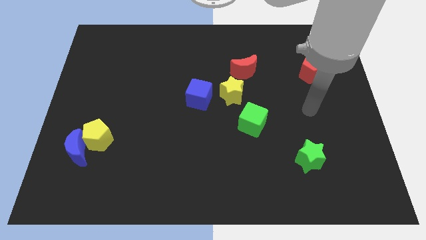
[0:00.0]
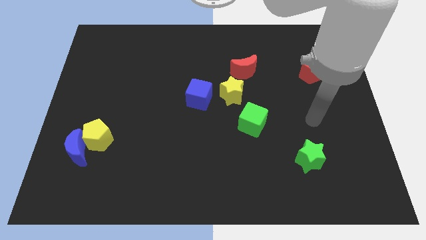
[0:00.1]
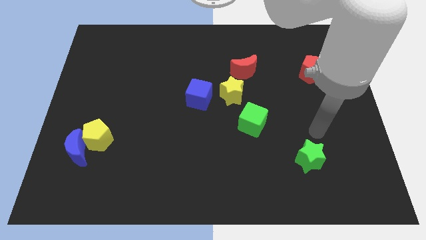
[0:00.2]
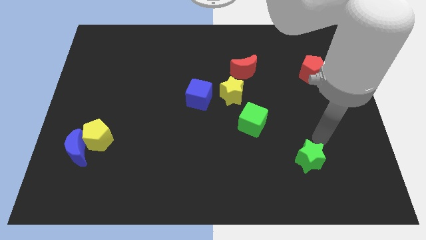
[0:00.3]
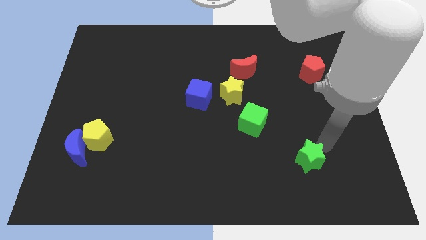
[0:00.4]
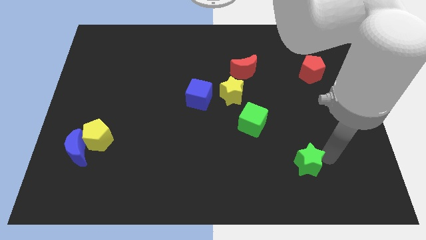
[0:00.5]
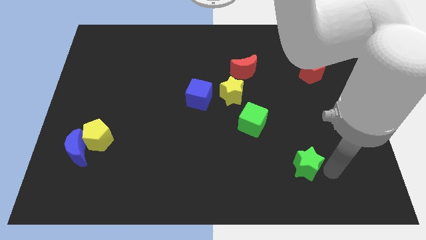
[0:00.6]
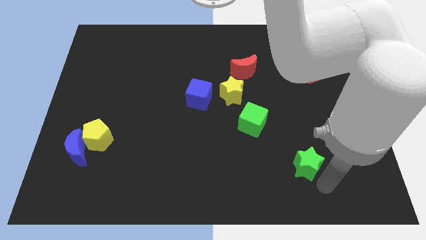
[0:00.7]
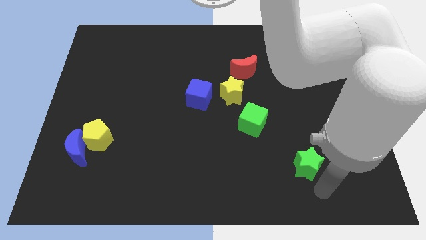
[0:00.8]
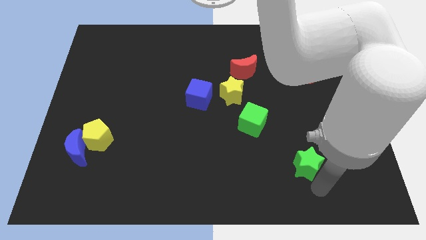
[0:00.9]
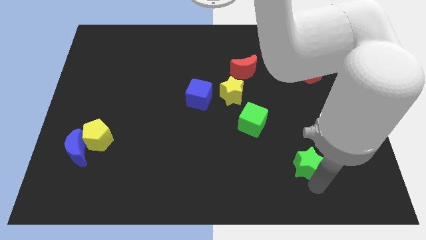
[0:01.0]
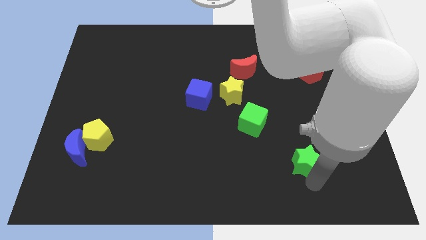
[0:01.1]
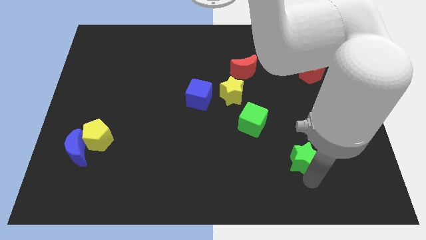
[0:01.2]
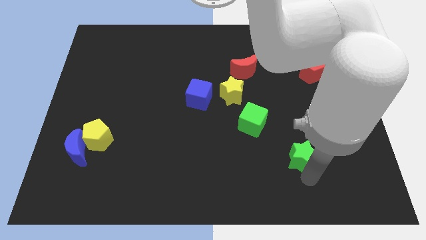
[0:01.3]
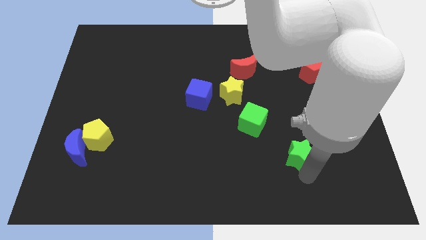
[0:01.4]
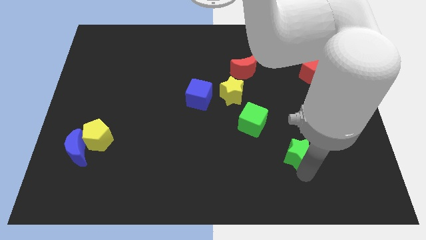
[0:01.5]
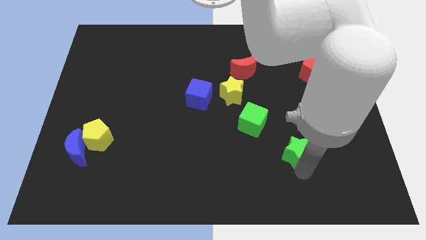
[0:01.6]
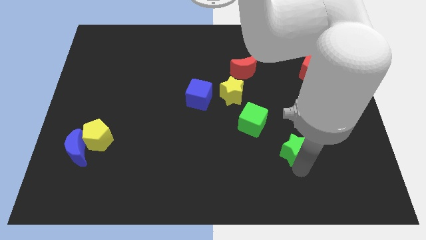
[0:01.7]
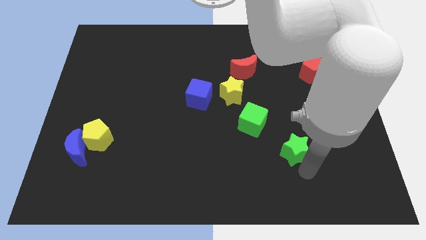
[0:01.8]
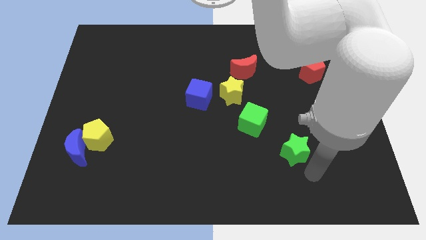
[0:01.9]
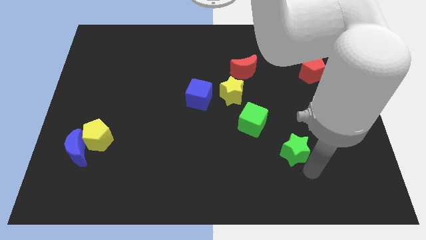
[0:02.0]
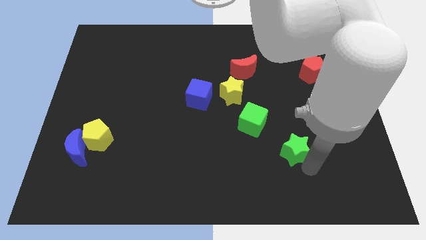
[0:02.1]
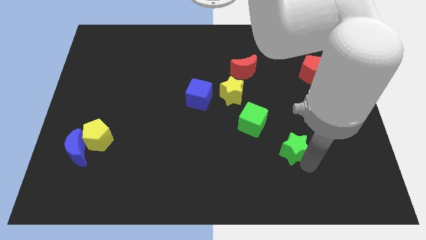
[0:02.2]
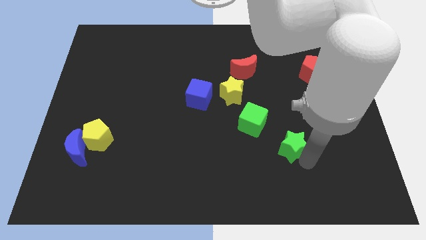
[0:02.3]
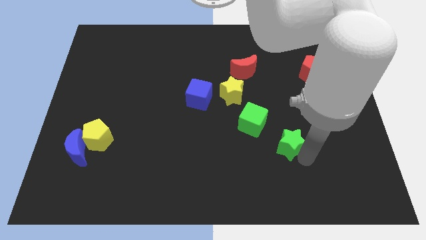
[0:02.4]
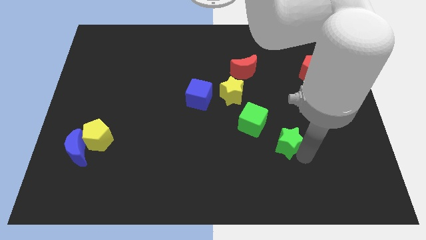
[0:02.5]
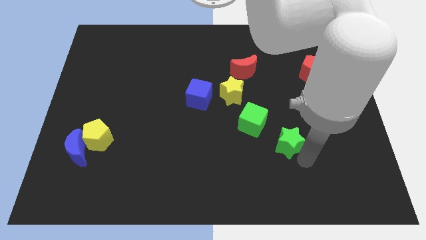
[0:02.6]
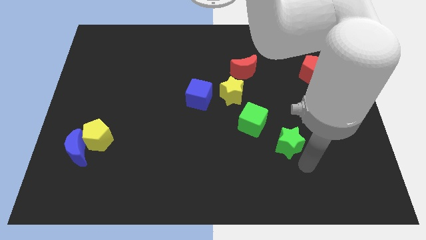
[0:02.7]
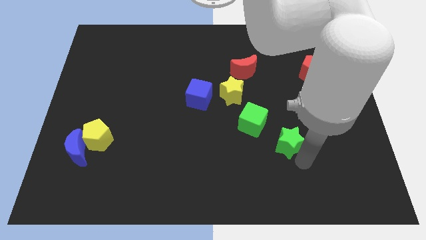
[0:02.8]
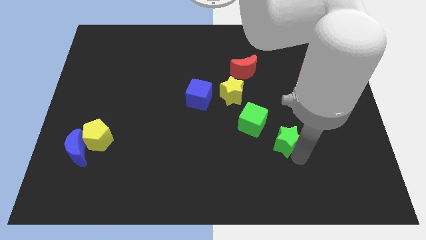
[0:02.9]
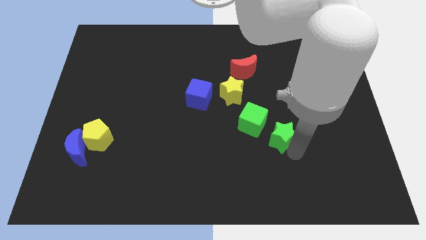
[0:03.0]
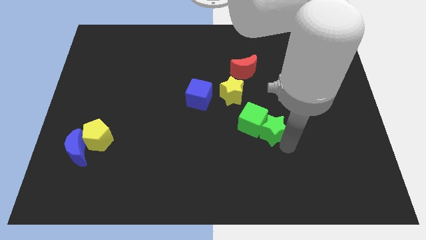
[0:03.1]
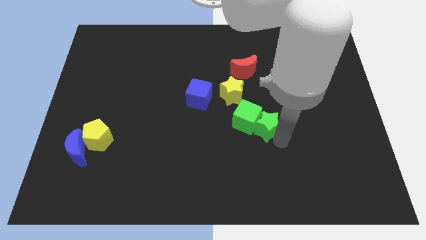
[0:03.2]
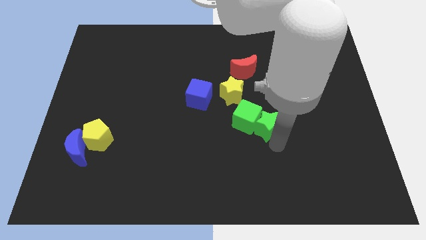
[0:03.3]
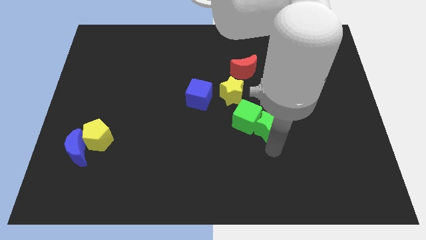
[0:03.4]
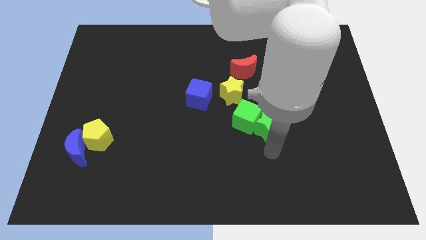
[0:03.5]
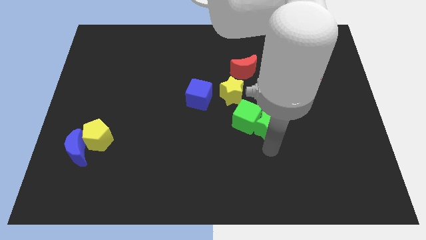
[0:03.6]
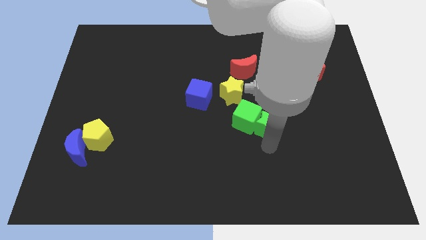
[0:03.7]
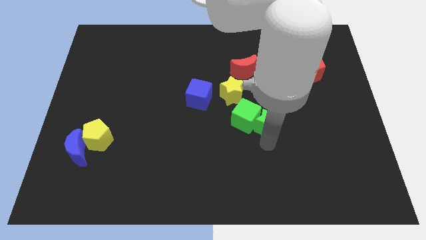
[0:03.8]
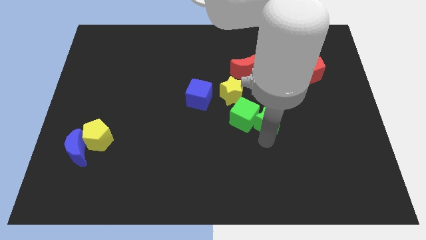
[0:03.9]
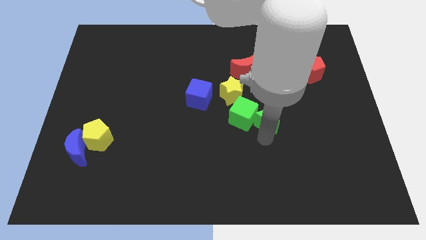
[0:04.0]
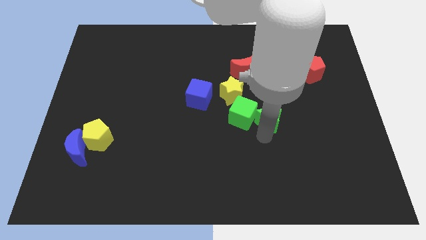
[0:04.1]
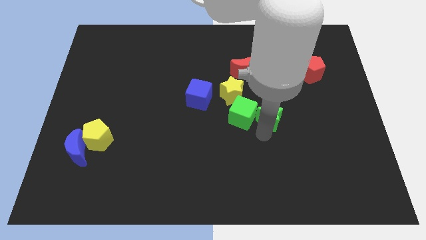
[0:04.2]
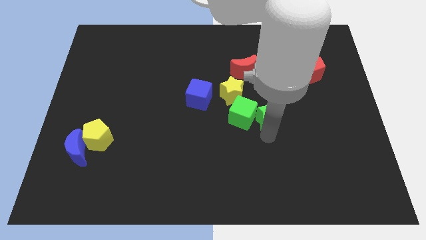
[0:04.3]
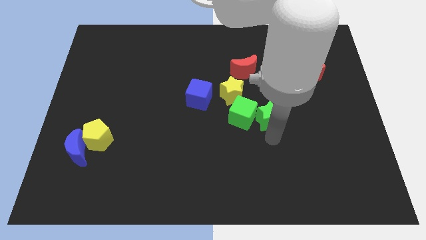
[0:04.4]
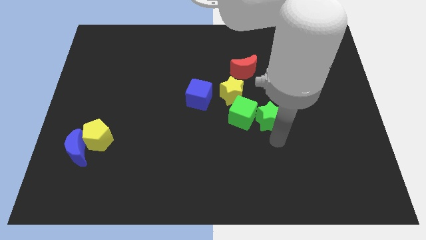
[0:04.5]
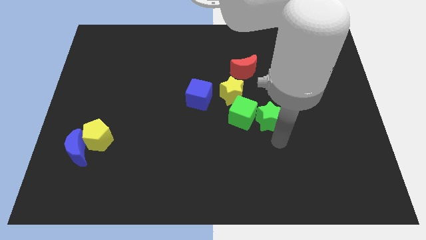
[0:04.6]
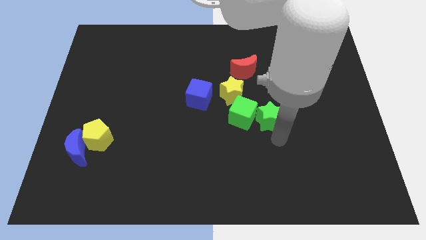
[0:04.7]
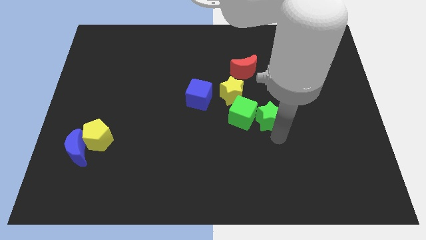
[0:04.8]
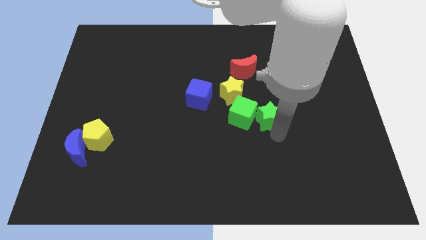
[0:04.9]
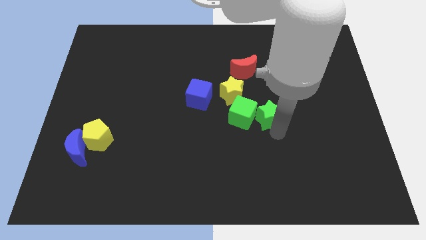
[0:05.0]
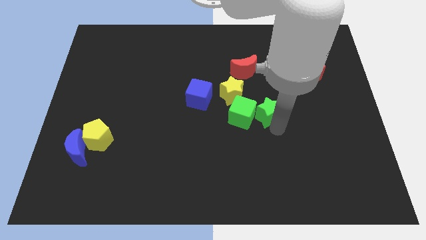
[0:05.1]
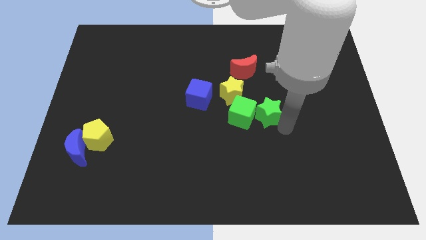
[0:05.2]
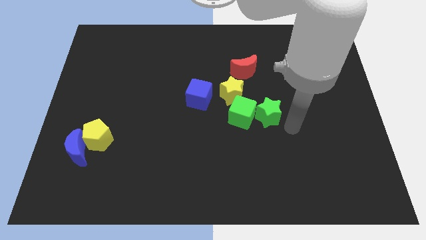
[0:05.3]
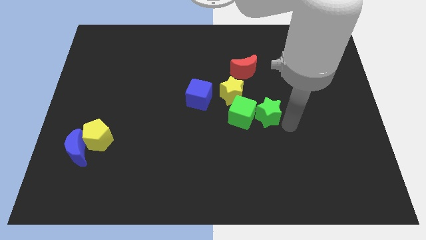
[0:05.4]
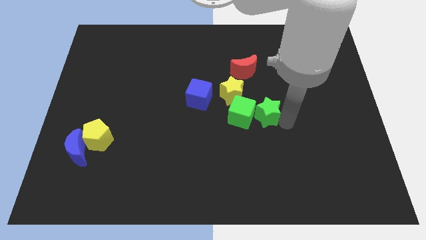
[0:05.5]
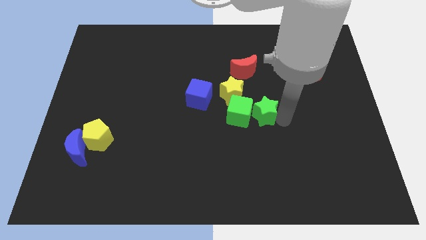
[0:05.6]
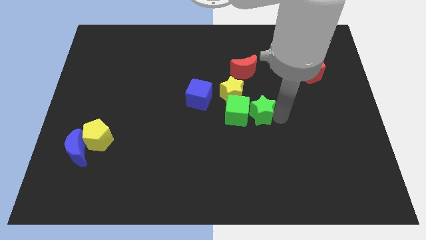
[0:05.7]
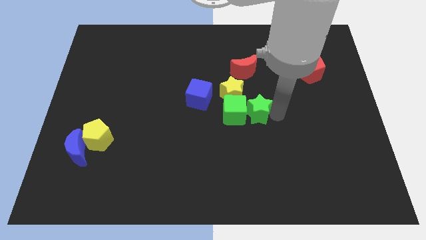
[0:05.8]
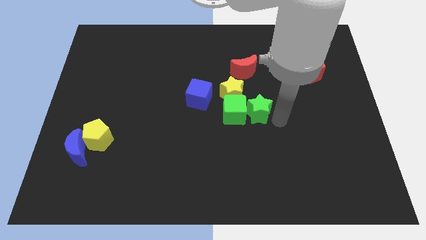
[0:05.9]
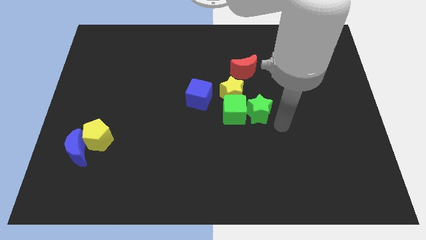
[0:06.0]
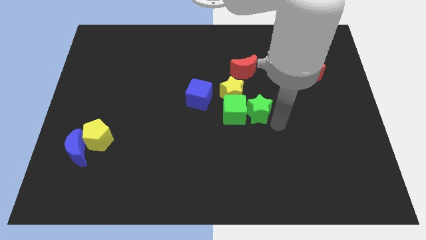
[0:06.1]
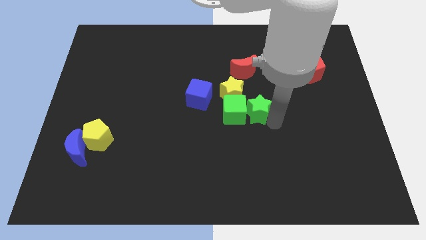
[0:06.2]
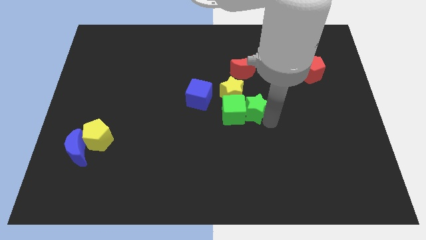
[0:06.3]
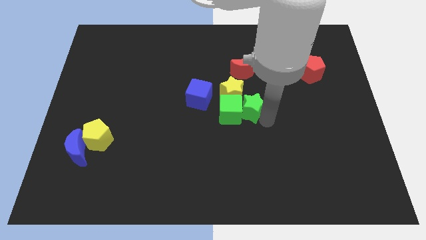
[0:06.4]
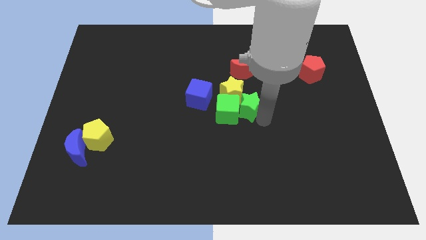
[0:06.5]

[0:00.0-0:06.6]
push the green star towards the yellow star
